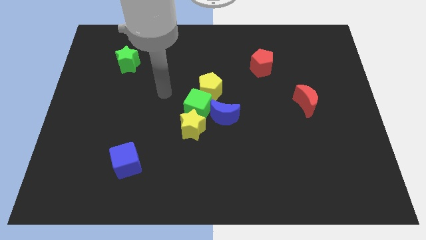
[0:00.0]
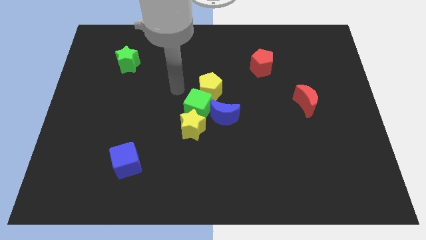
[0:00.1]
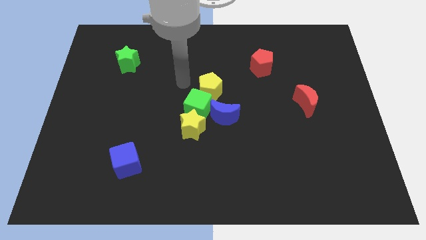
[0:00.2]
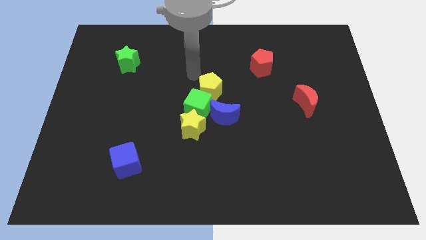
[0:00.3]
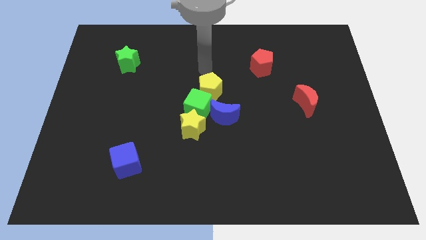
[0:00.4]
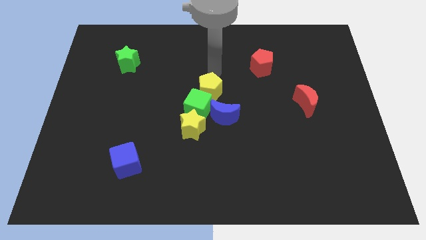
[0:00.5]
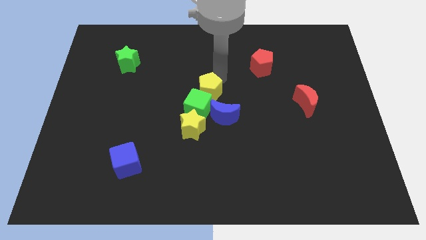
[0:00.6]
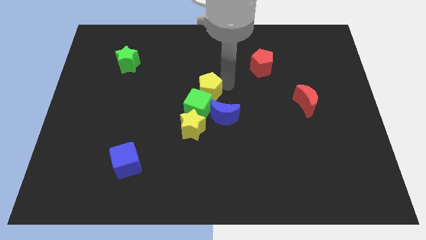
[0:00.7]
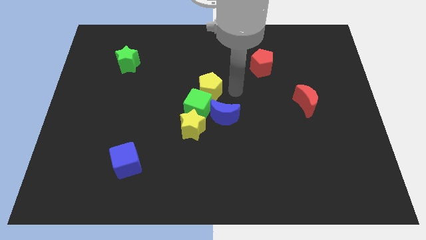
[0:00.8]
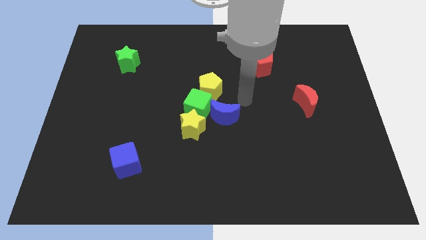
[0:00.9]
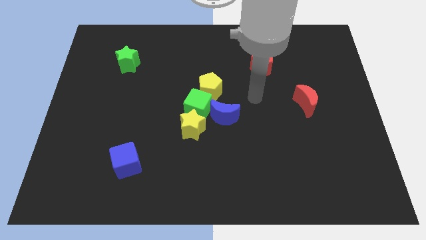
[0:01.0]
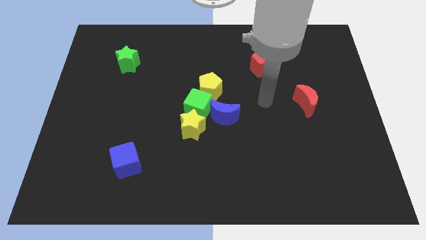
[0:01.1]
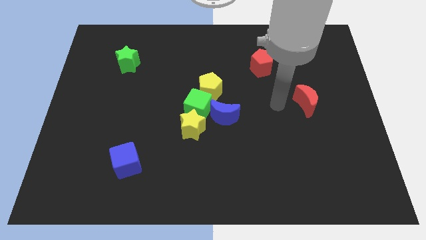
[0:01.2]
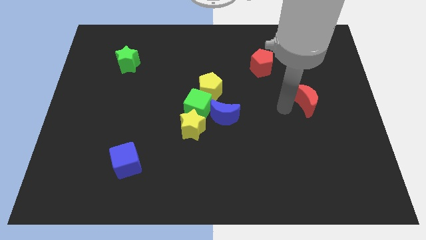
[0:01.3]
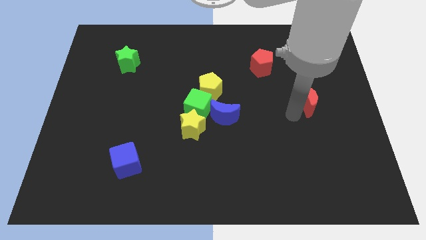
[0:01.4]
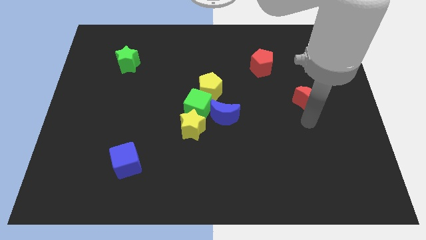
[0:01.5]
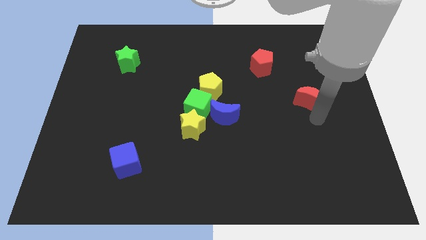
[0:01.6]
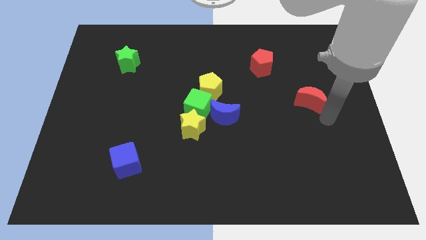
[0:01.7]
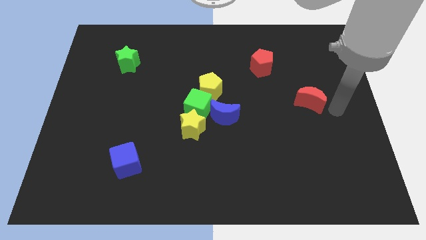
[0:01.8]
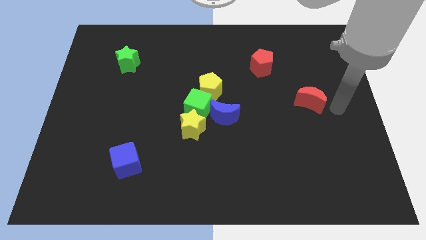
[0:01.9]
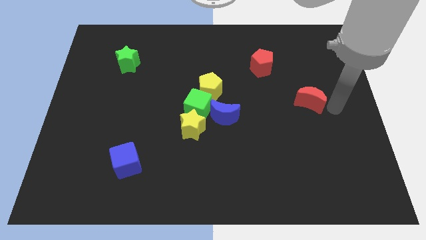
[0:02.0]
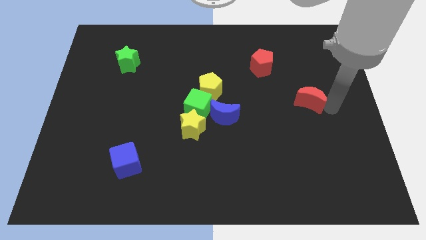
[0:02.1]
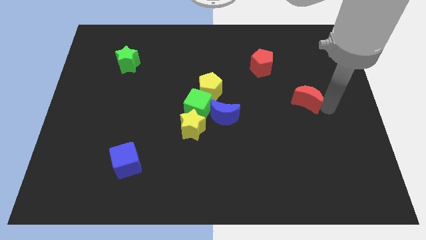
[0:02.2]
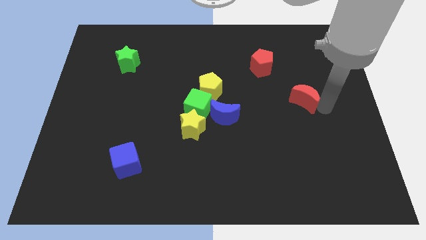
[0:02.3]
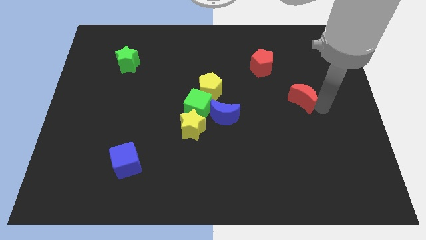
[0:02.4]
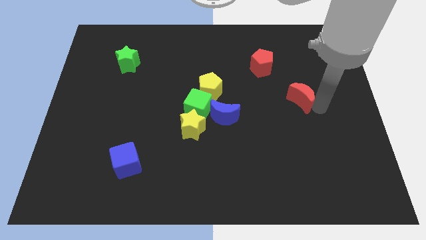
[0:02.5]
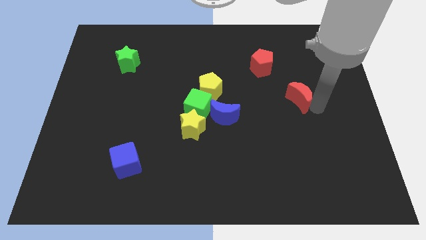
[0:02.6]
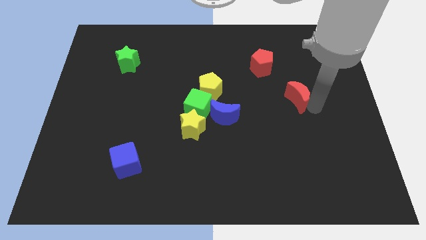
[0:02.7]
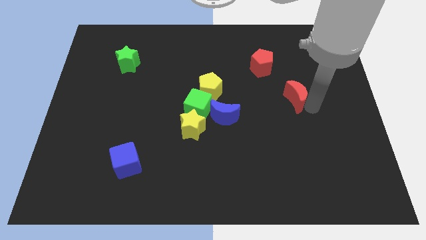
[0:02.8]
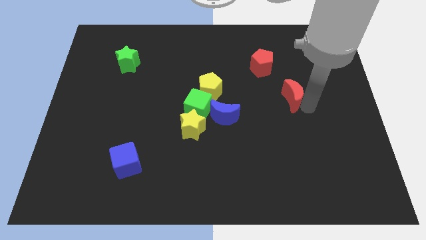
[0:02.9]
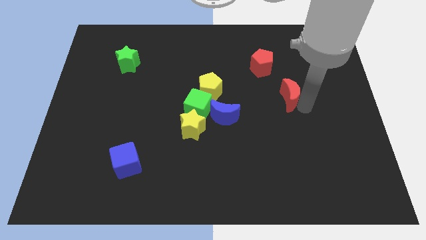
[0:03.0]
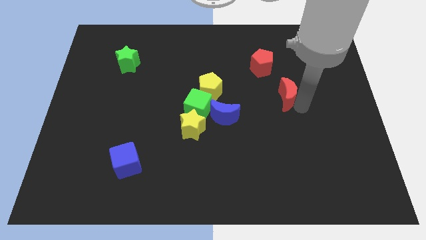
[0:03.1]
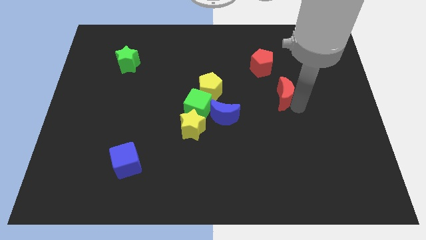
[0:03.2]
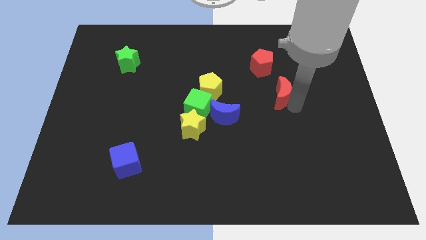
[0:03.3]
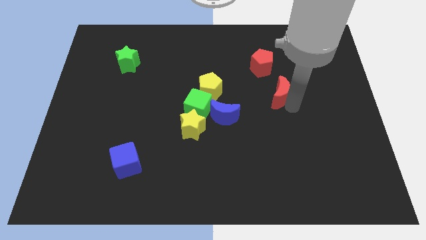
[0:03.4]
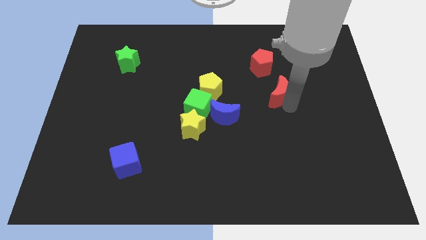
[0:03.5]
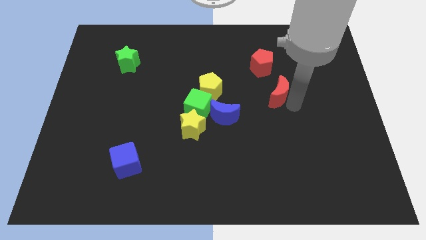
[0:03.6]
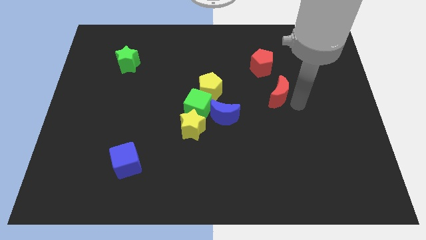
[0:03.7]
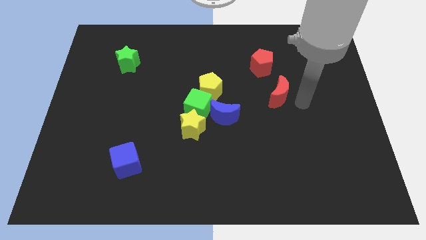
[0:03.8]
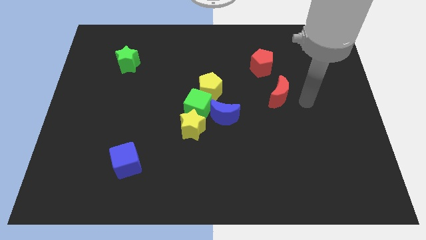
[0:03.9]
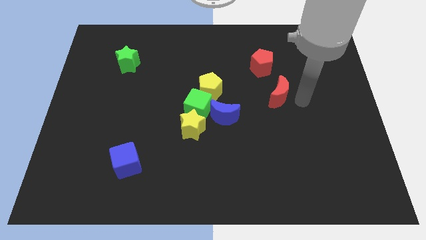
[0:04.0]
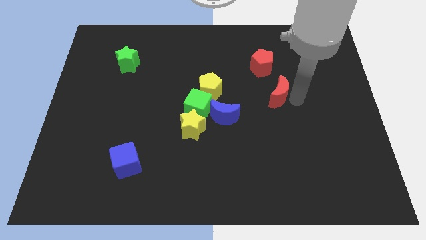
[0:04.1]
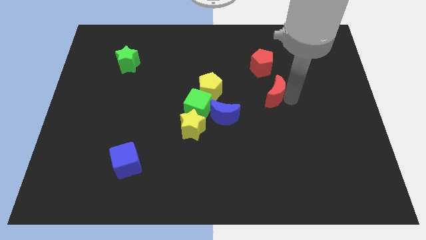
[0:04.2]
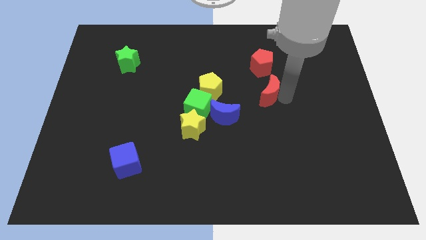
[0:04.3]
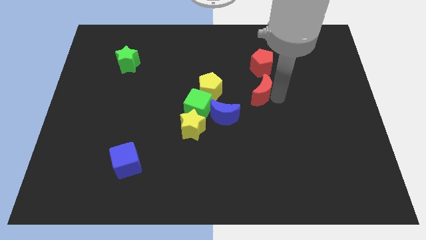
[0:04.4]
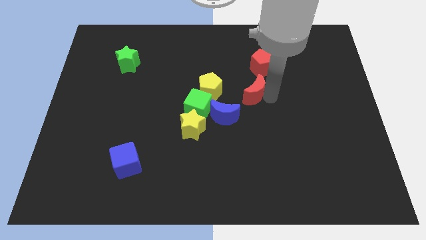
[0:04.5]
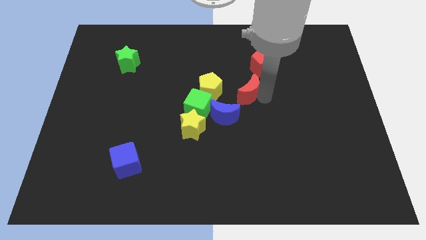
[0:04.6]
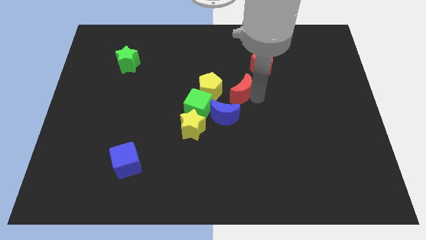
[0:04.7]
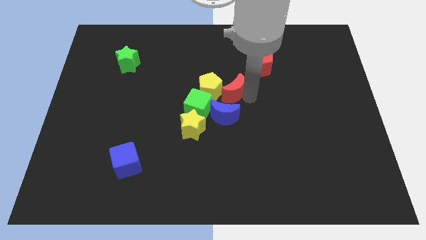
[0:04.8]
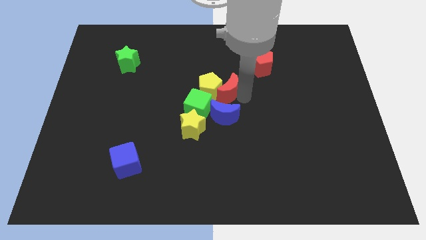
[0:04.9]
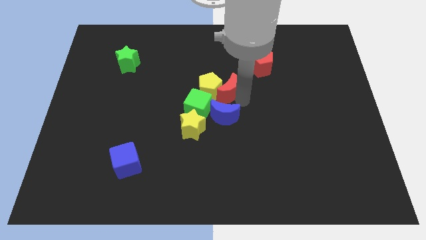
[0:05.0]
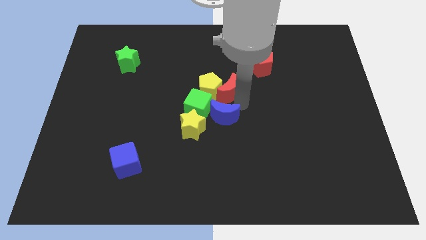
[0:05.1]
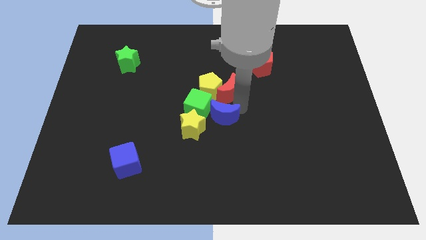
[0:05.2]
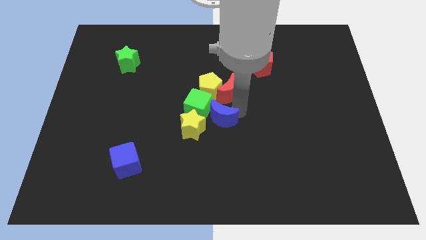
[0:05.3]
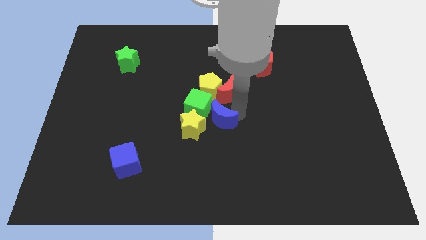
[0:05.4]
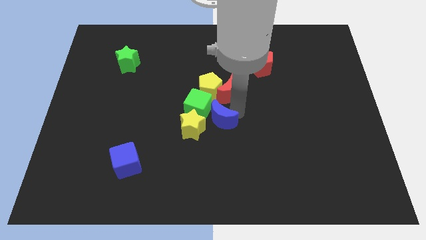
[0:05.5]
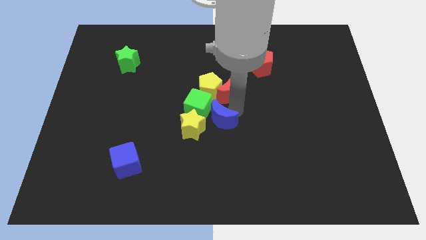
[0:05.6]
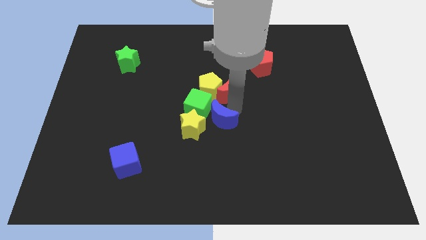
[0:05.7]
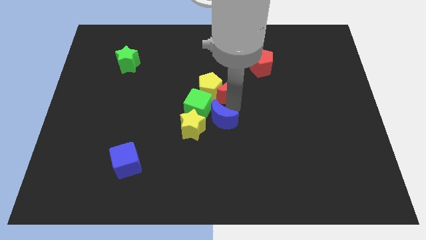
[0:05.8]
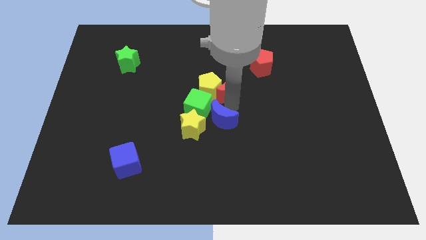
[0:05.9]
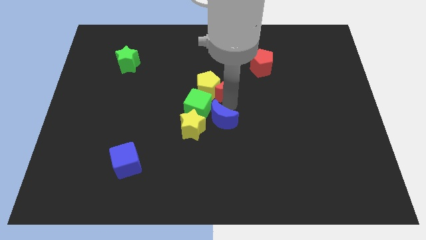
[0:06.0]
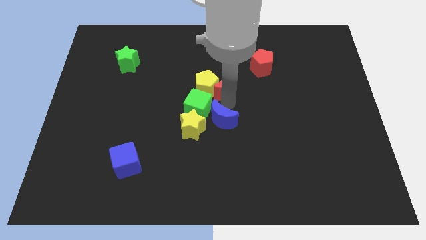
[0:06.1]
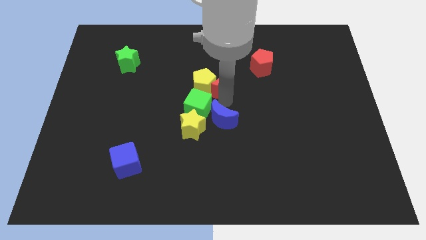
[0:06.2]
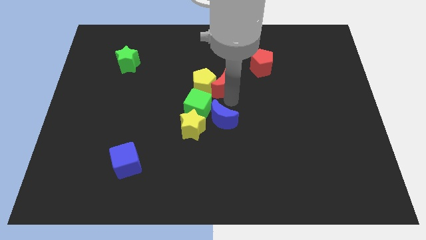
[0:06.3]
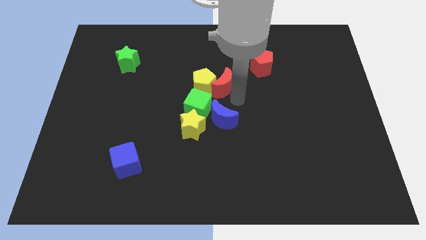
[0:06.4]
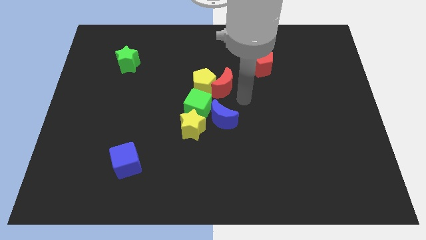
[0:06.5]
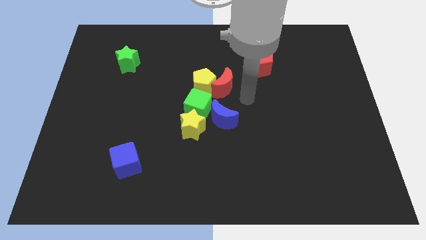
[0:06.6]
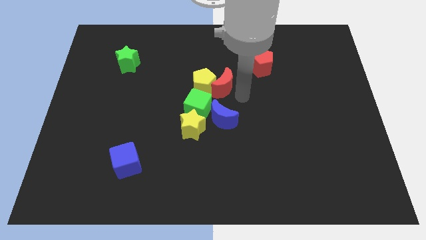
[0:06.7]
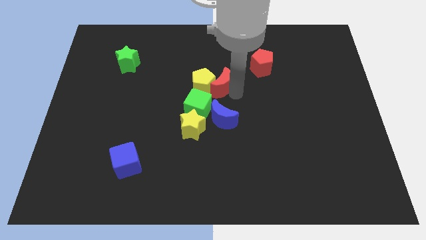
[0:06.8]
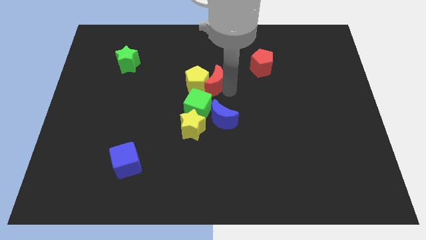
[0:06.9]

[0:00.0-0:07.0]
move the red moon above the green cube
